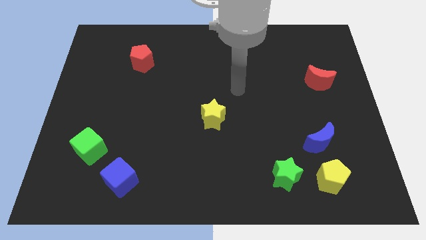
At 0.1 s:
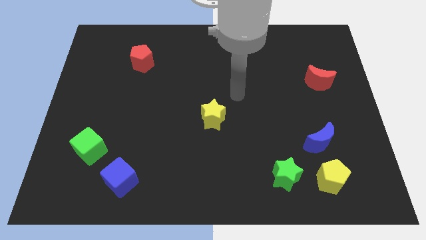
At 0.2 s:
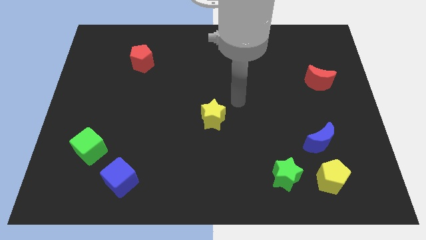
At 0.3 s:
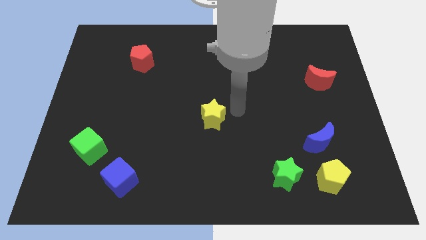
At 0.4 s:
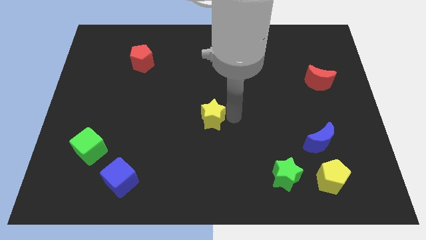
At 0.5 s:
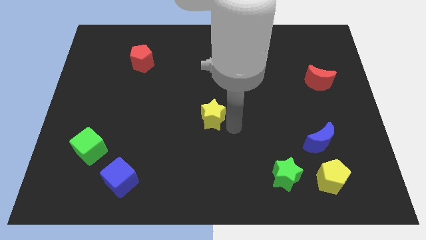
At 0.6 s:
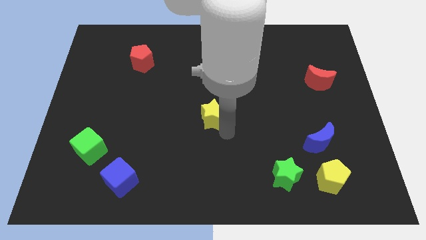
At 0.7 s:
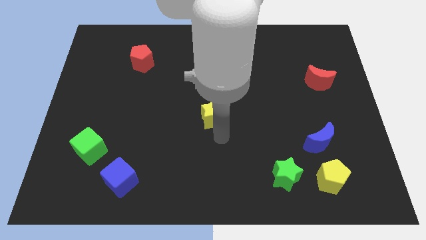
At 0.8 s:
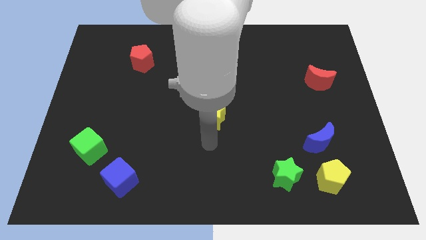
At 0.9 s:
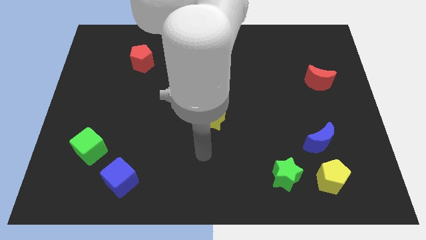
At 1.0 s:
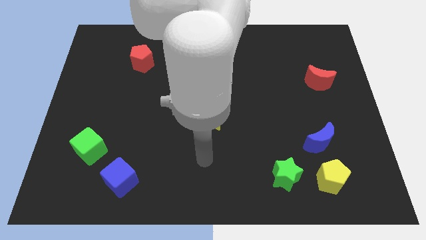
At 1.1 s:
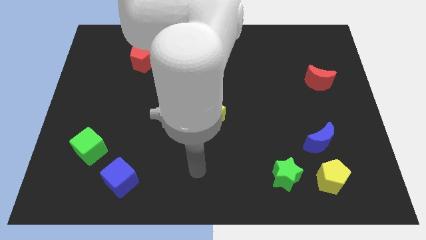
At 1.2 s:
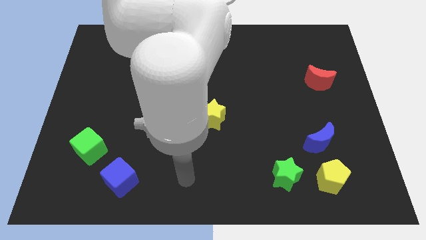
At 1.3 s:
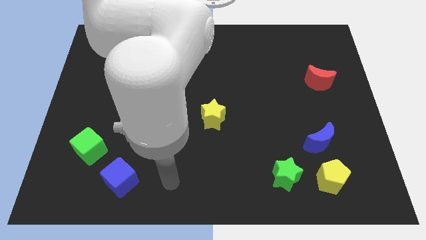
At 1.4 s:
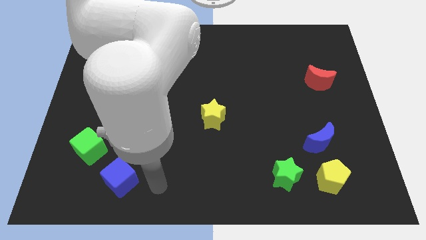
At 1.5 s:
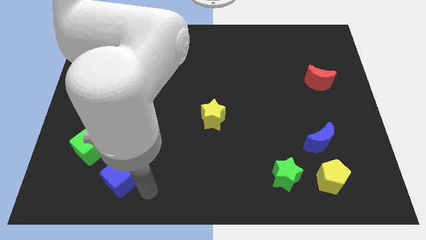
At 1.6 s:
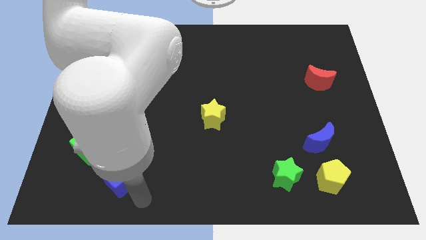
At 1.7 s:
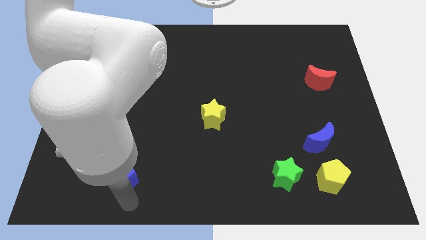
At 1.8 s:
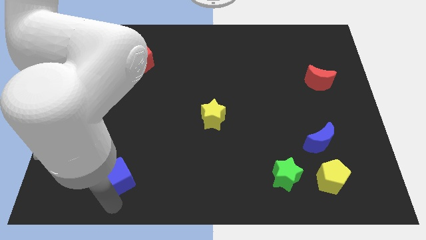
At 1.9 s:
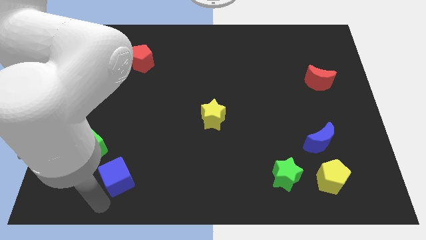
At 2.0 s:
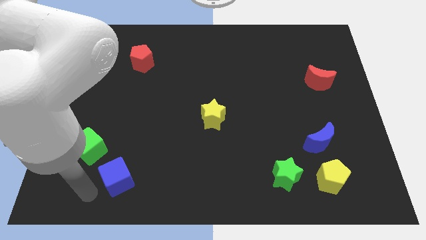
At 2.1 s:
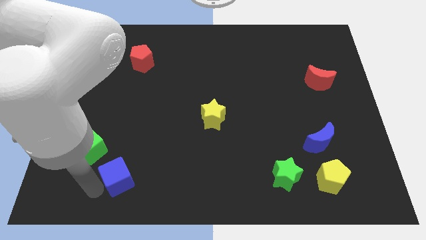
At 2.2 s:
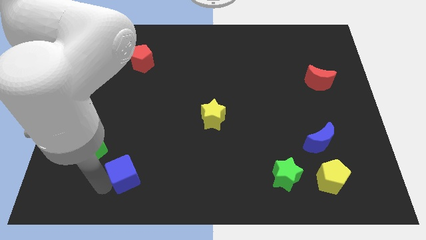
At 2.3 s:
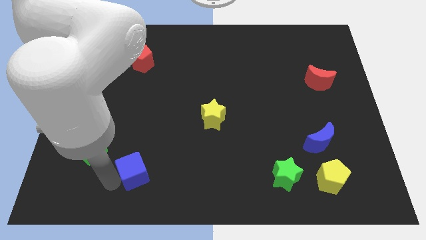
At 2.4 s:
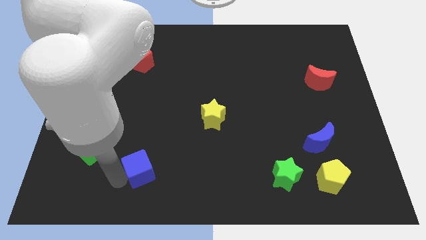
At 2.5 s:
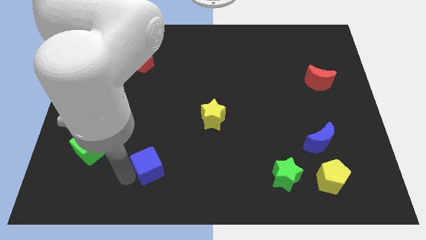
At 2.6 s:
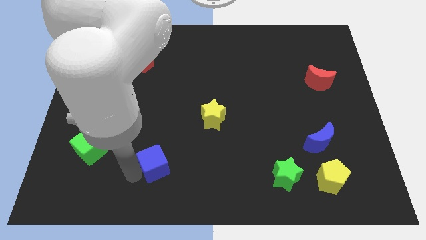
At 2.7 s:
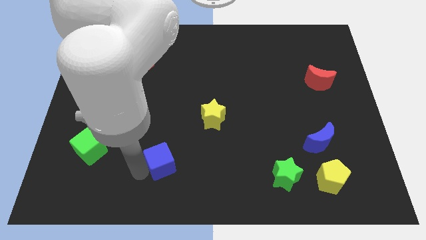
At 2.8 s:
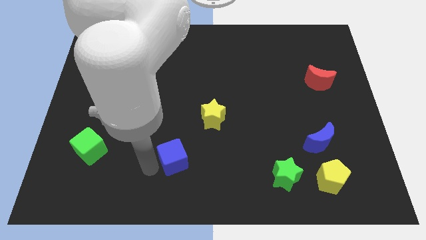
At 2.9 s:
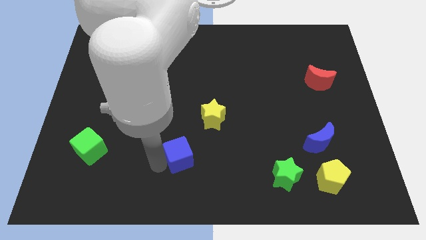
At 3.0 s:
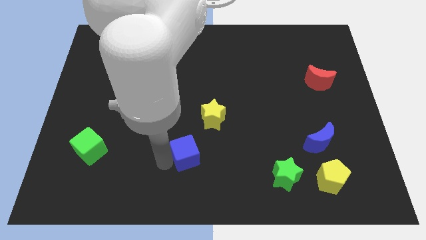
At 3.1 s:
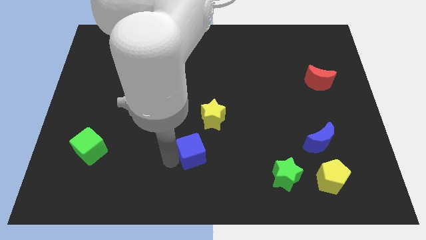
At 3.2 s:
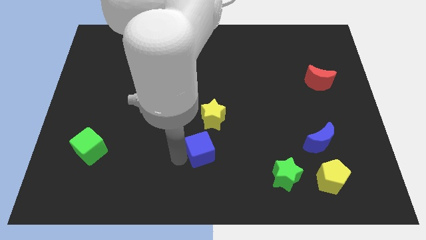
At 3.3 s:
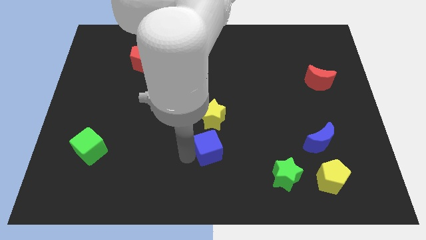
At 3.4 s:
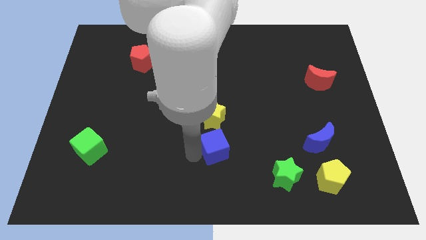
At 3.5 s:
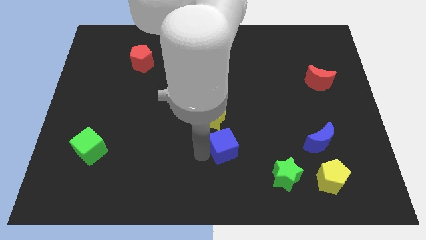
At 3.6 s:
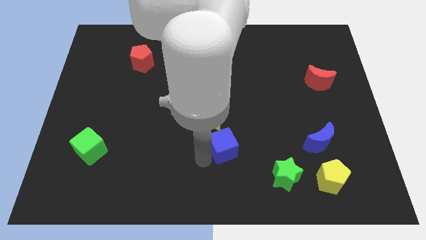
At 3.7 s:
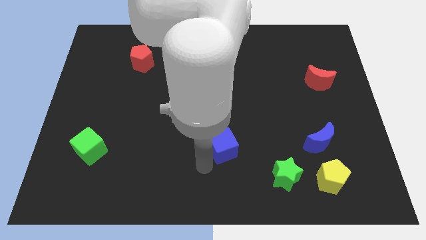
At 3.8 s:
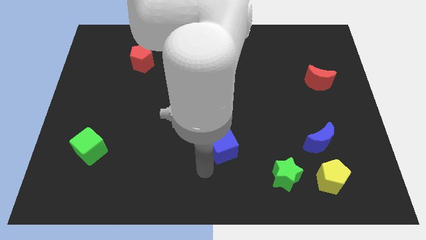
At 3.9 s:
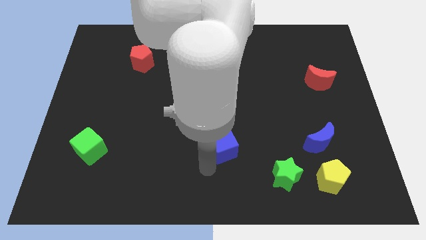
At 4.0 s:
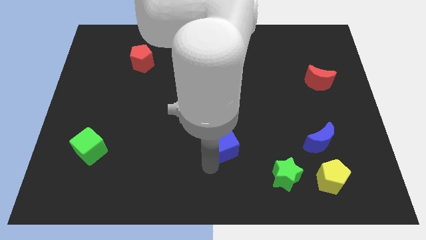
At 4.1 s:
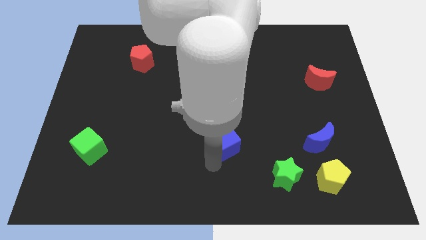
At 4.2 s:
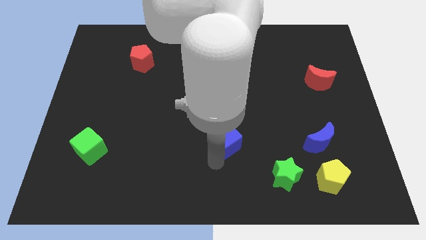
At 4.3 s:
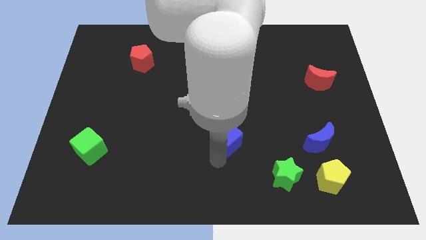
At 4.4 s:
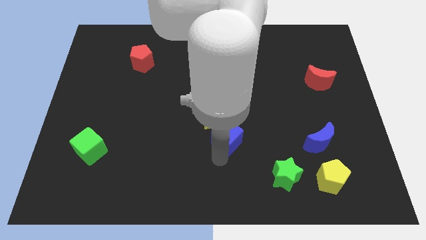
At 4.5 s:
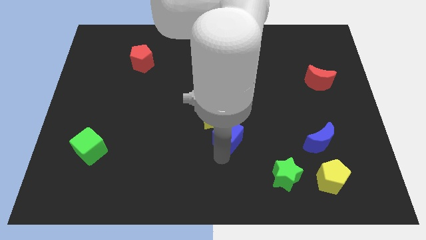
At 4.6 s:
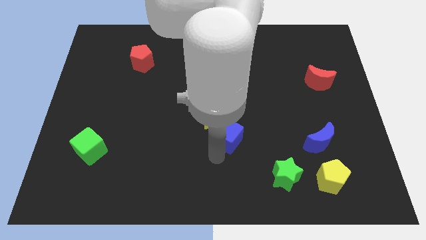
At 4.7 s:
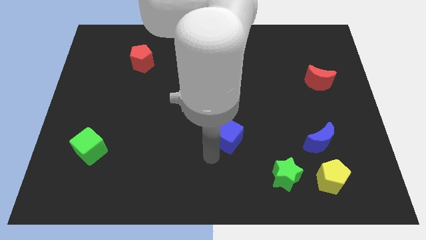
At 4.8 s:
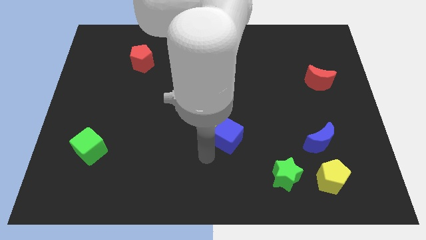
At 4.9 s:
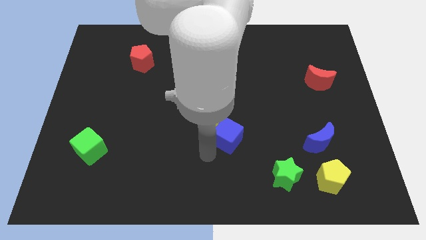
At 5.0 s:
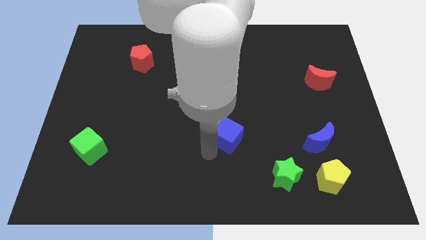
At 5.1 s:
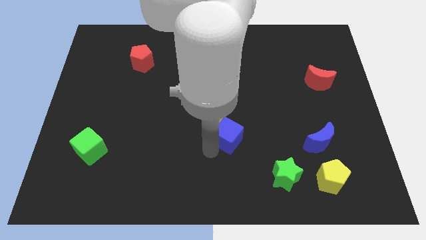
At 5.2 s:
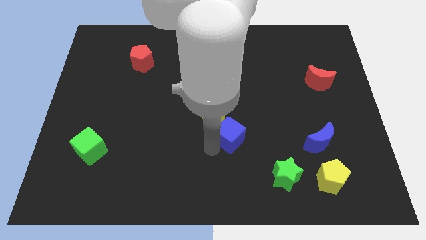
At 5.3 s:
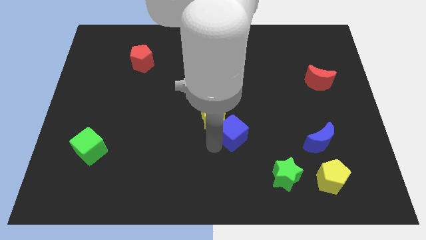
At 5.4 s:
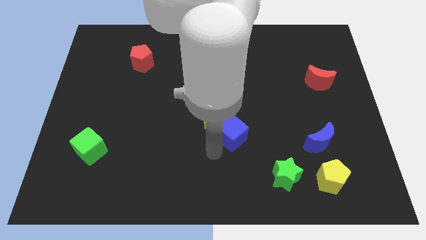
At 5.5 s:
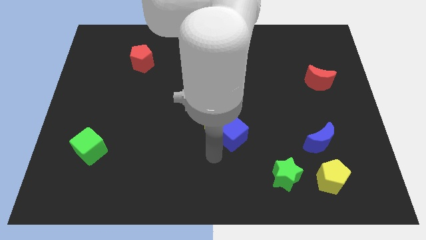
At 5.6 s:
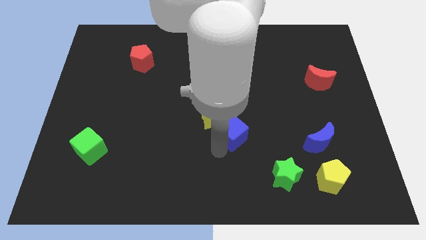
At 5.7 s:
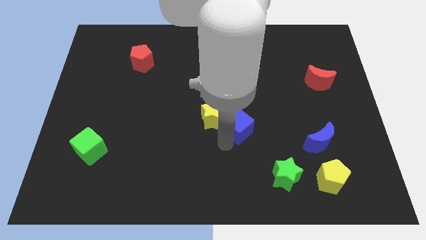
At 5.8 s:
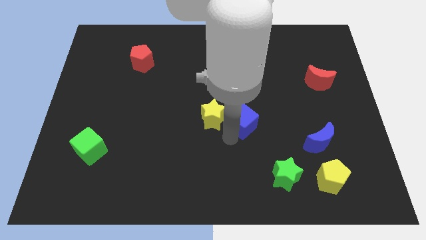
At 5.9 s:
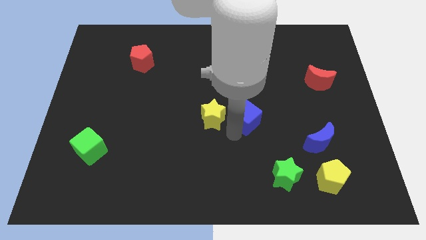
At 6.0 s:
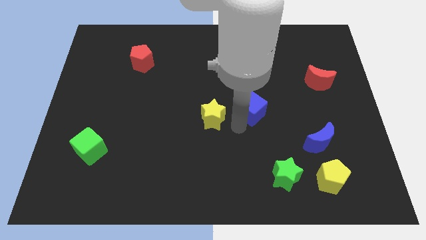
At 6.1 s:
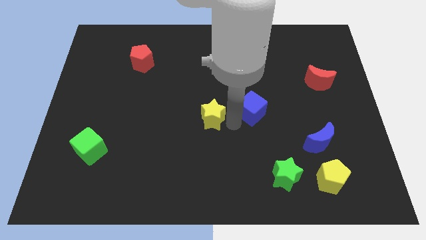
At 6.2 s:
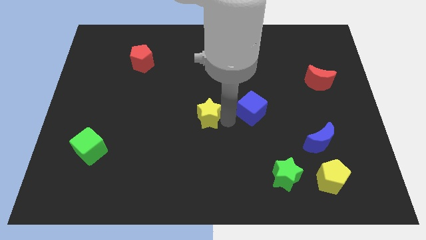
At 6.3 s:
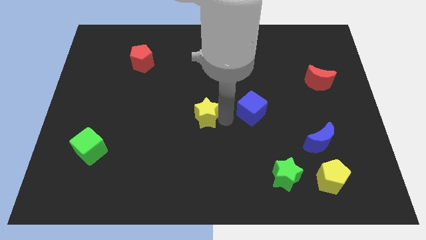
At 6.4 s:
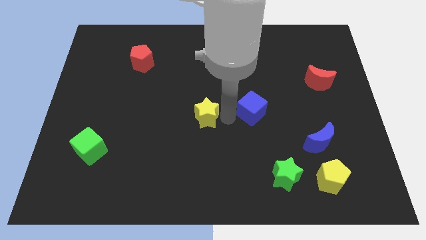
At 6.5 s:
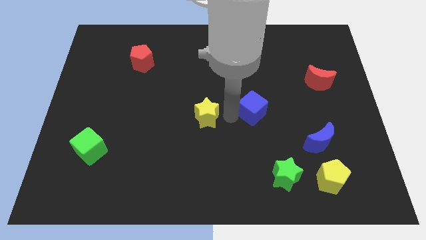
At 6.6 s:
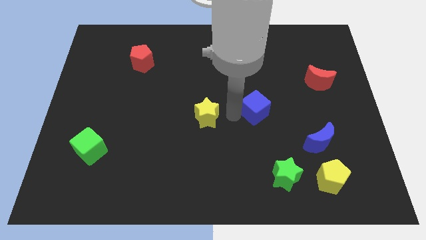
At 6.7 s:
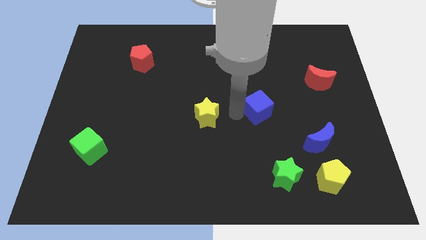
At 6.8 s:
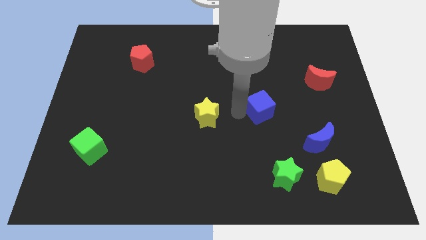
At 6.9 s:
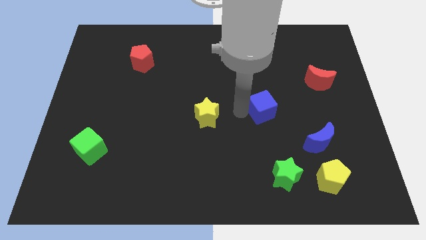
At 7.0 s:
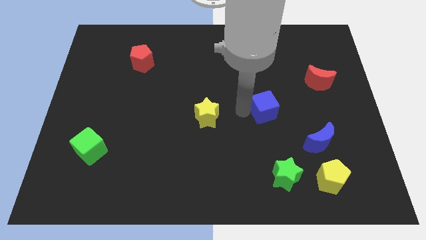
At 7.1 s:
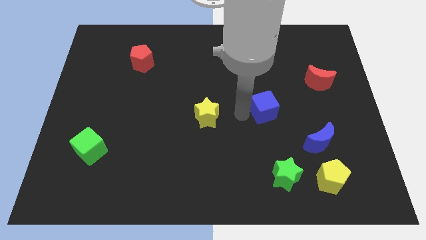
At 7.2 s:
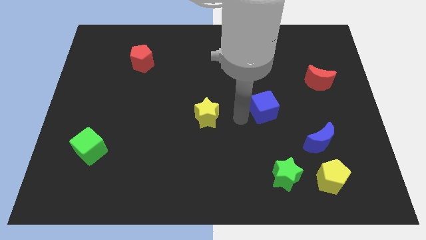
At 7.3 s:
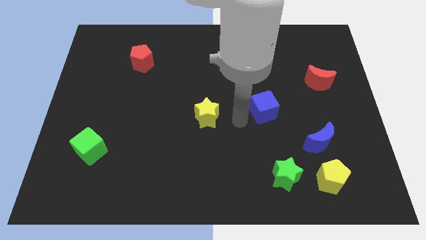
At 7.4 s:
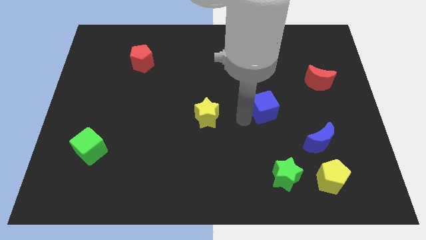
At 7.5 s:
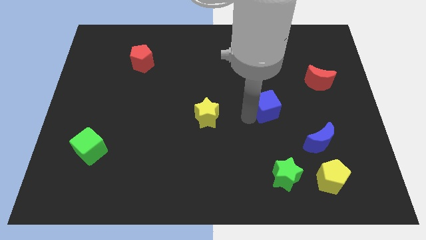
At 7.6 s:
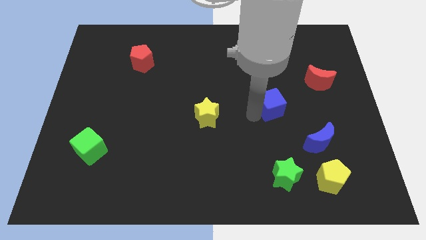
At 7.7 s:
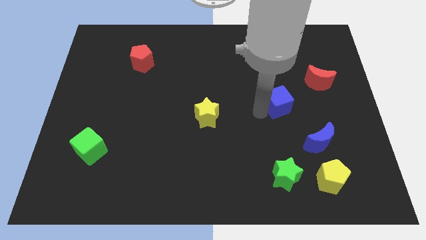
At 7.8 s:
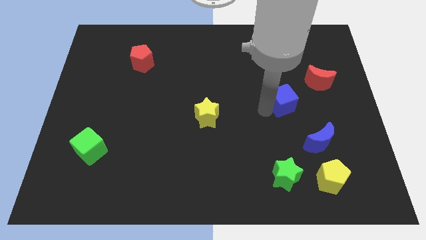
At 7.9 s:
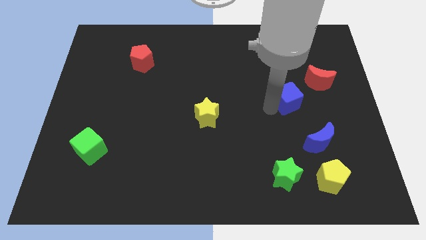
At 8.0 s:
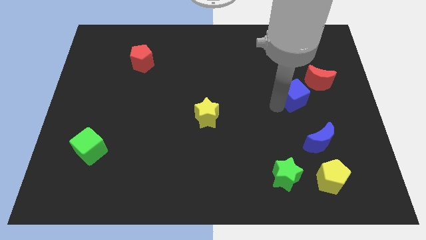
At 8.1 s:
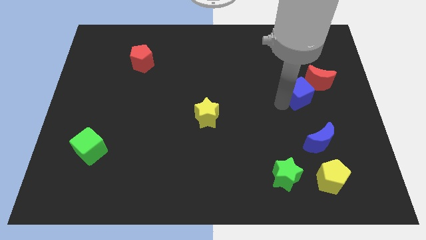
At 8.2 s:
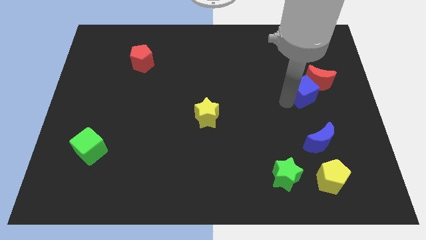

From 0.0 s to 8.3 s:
push the blue cube to the red moon
